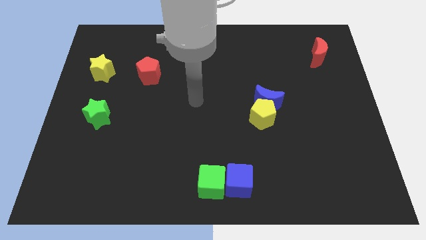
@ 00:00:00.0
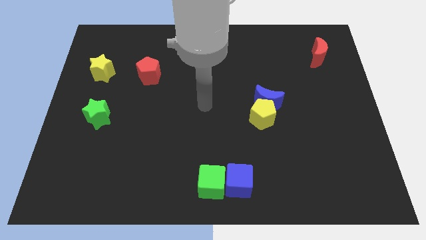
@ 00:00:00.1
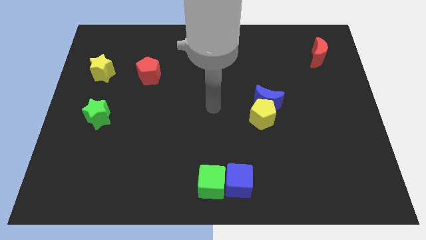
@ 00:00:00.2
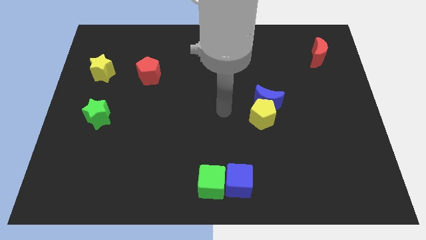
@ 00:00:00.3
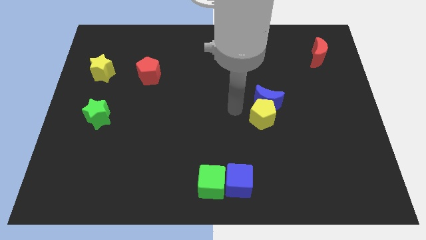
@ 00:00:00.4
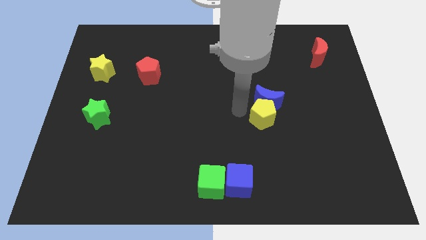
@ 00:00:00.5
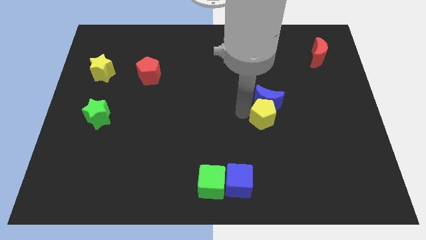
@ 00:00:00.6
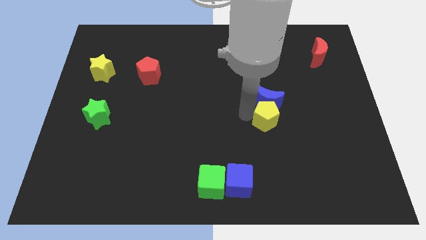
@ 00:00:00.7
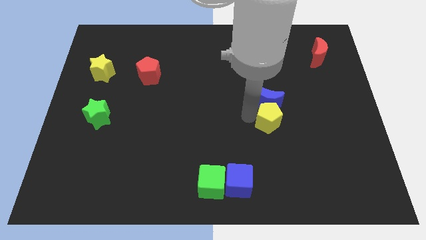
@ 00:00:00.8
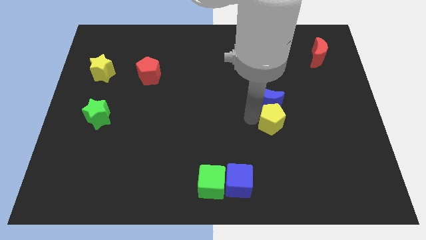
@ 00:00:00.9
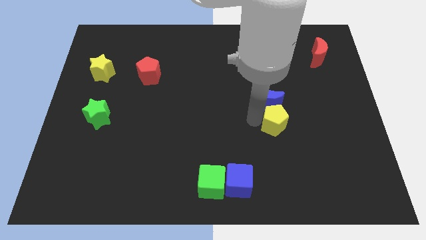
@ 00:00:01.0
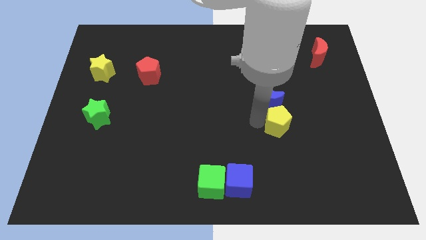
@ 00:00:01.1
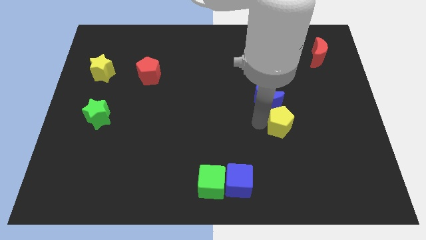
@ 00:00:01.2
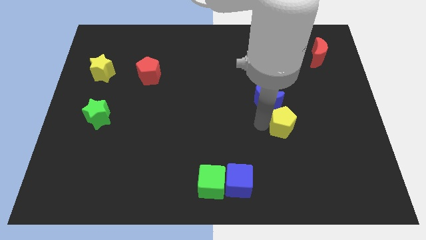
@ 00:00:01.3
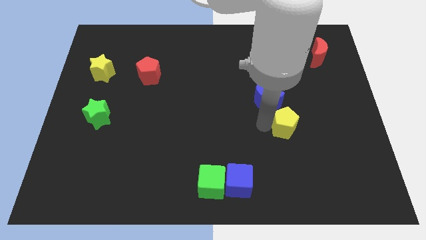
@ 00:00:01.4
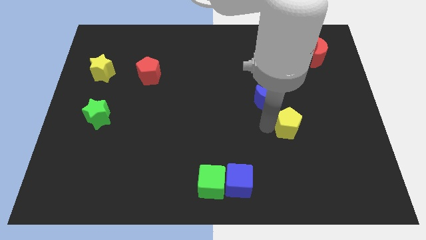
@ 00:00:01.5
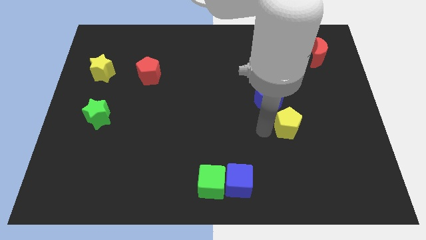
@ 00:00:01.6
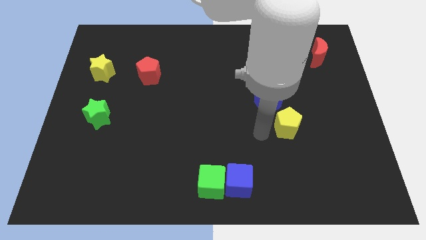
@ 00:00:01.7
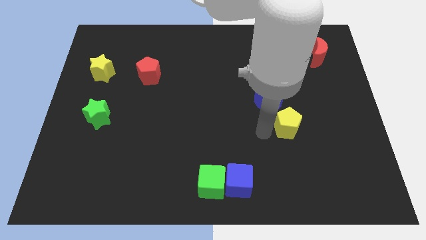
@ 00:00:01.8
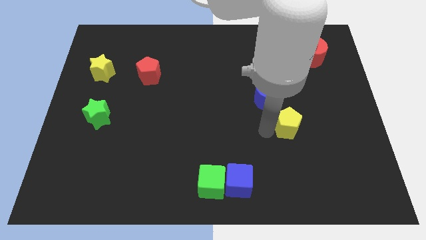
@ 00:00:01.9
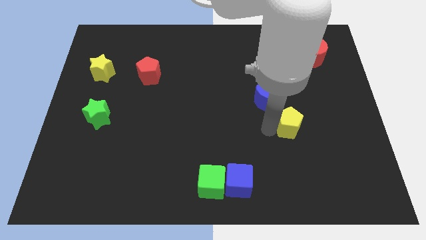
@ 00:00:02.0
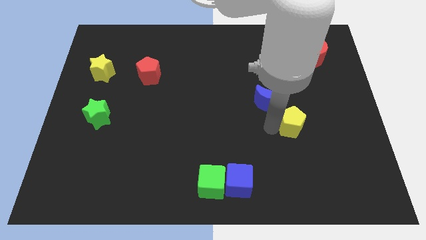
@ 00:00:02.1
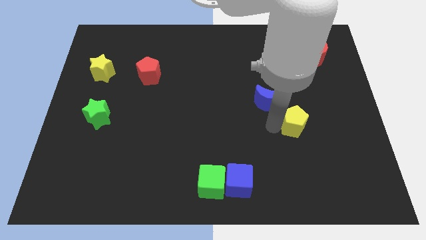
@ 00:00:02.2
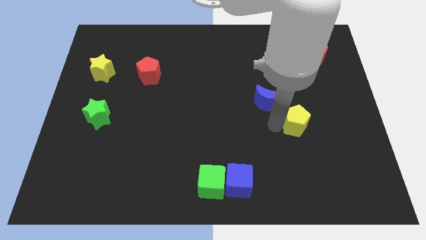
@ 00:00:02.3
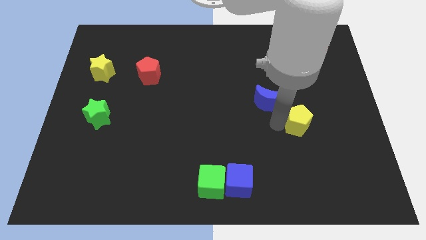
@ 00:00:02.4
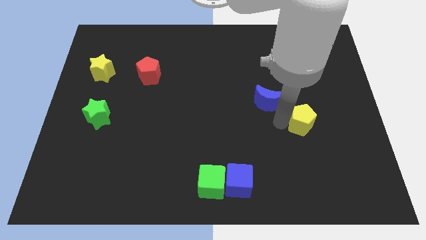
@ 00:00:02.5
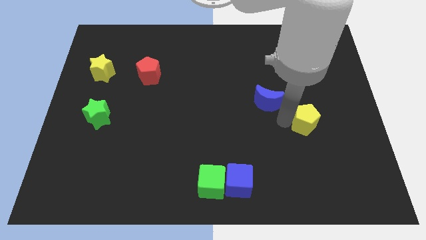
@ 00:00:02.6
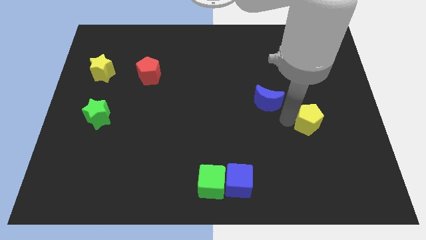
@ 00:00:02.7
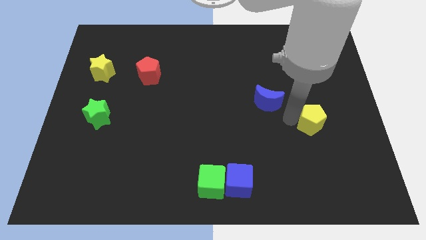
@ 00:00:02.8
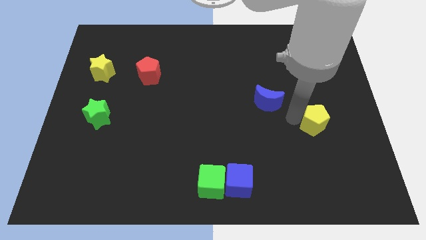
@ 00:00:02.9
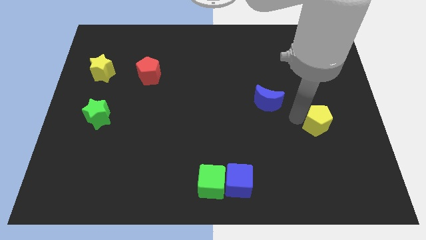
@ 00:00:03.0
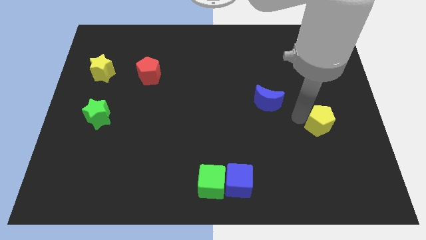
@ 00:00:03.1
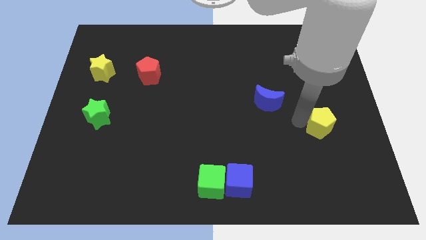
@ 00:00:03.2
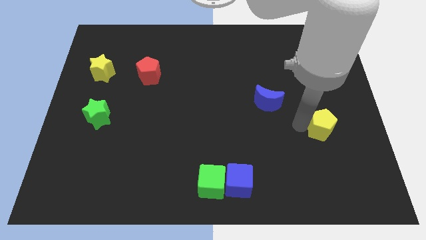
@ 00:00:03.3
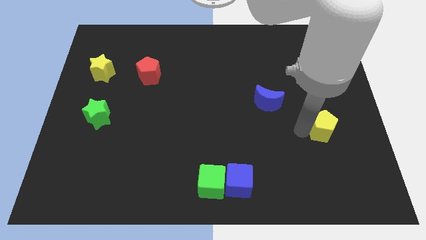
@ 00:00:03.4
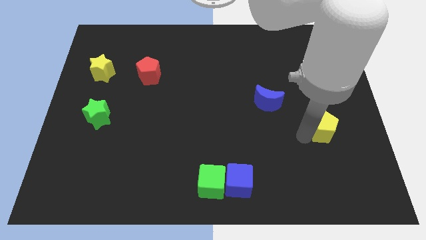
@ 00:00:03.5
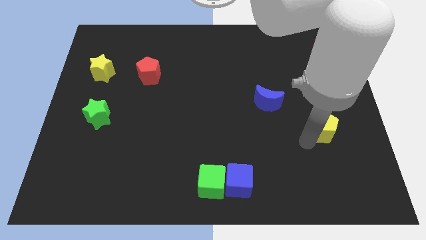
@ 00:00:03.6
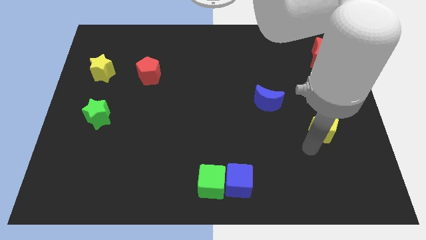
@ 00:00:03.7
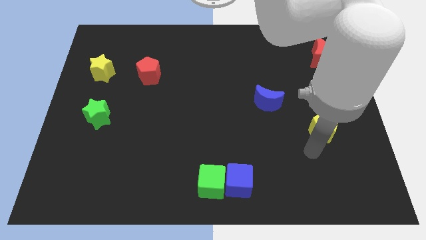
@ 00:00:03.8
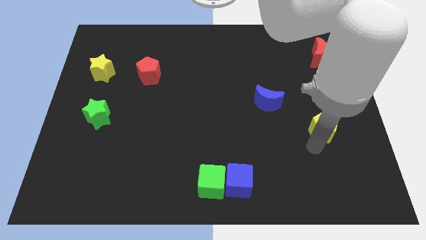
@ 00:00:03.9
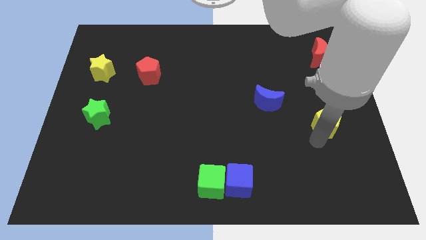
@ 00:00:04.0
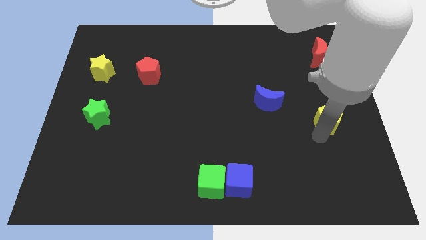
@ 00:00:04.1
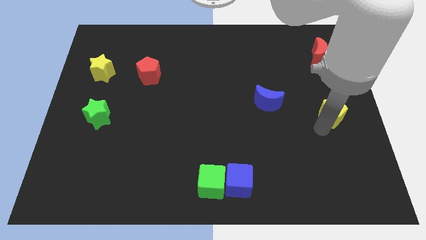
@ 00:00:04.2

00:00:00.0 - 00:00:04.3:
put the yellow pentagon to the right side

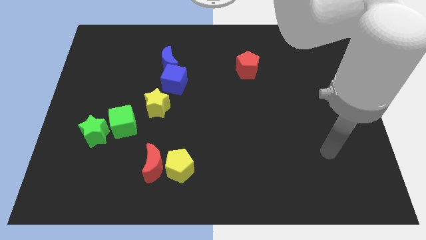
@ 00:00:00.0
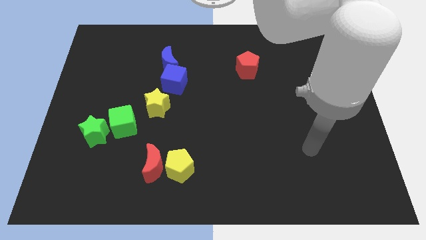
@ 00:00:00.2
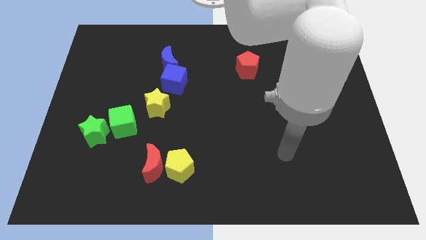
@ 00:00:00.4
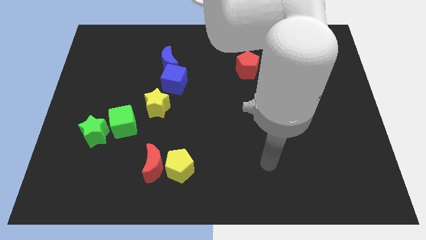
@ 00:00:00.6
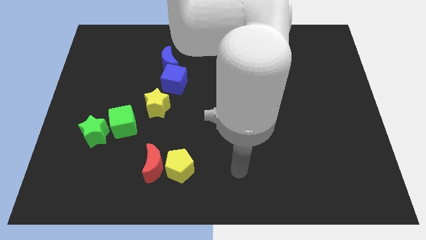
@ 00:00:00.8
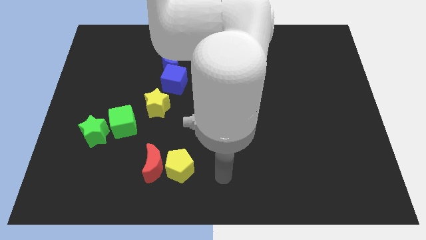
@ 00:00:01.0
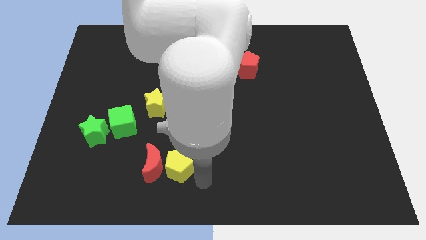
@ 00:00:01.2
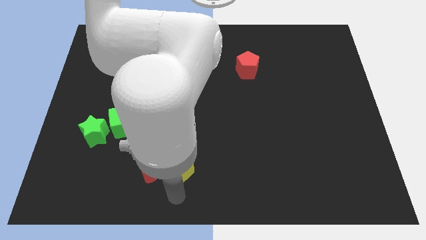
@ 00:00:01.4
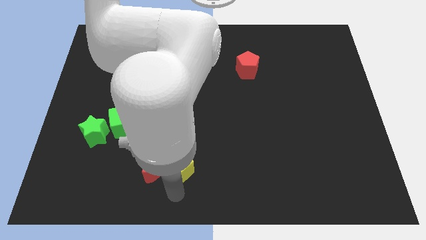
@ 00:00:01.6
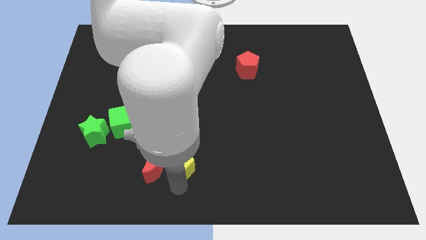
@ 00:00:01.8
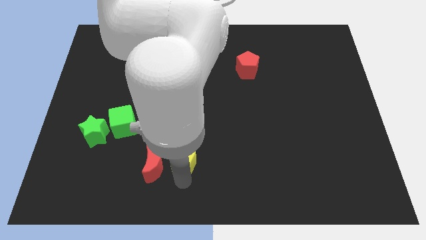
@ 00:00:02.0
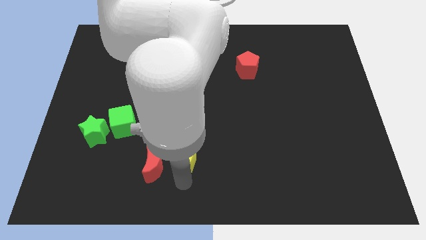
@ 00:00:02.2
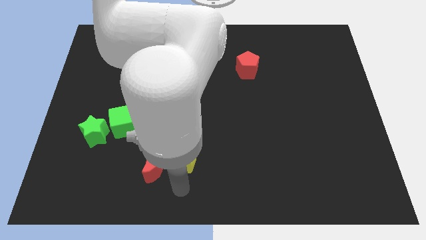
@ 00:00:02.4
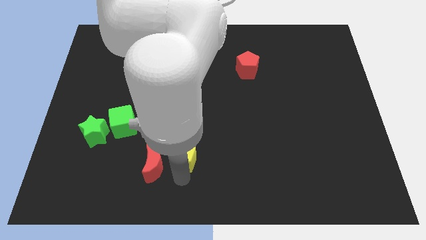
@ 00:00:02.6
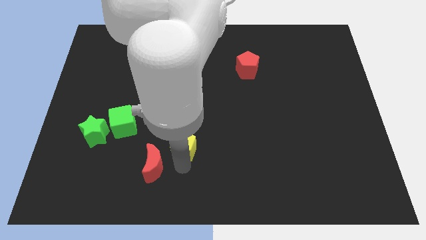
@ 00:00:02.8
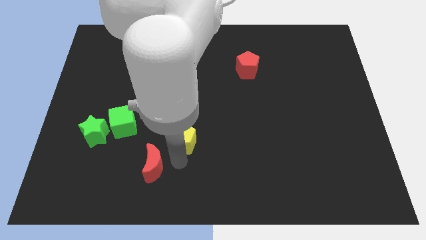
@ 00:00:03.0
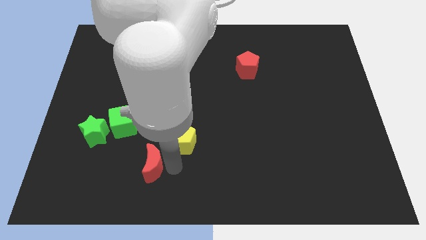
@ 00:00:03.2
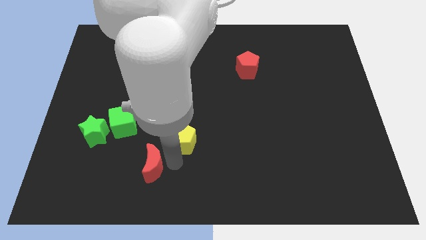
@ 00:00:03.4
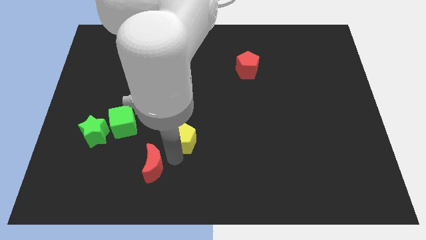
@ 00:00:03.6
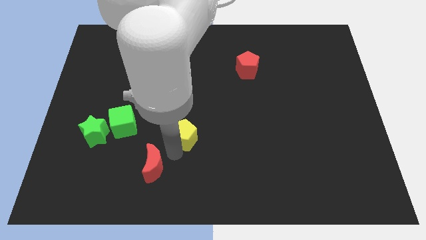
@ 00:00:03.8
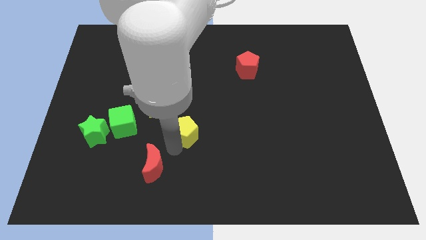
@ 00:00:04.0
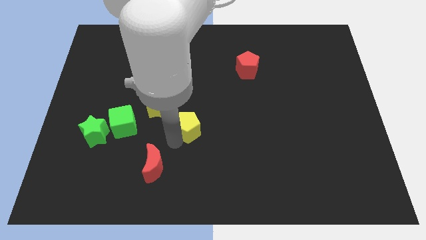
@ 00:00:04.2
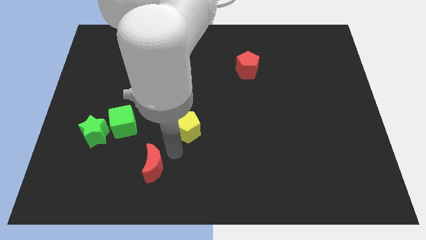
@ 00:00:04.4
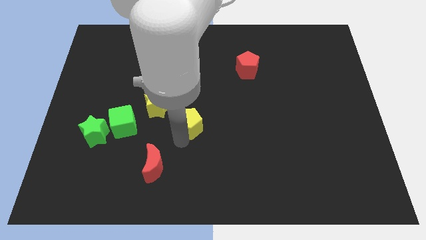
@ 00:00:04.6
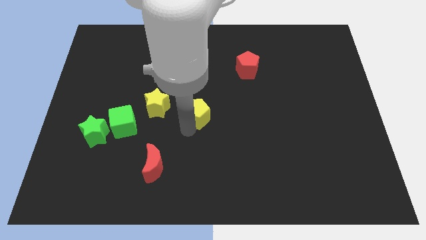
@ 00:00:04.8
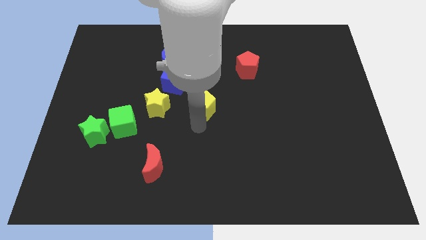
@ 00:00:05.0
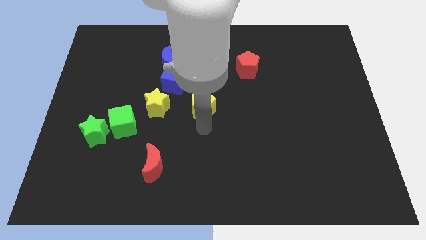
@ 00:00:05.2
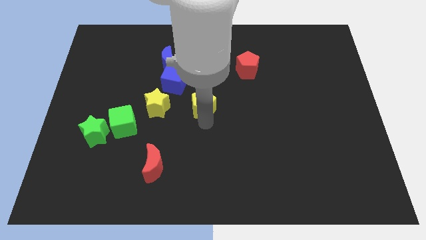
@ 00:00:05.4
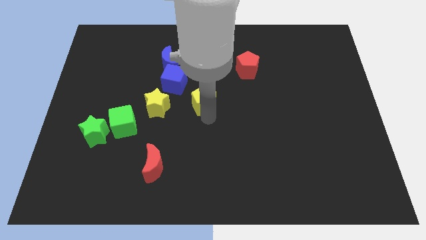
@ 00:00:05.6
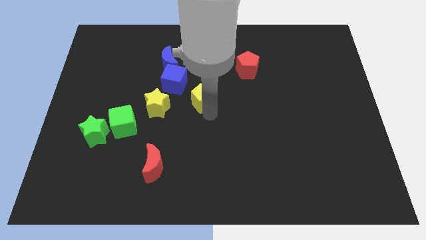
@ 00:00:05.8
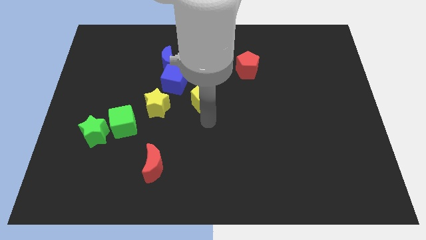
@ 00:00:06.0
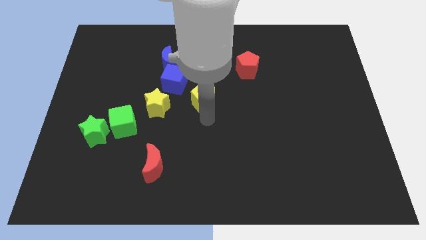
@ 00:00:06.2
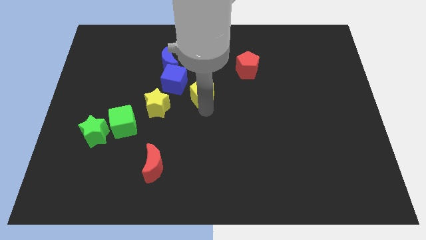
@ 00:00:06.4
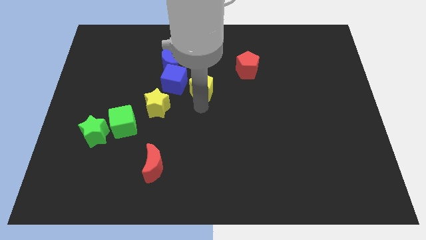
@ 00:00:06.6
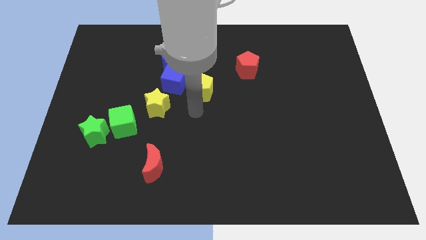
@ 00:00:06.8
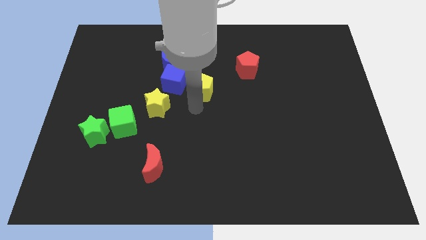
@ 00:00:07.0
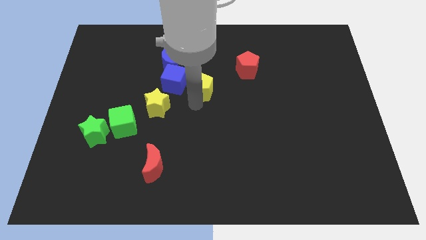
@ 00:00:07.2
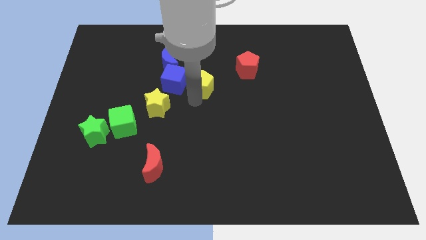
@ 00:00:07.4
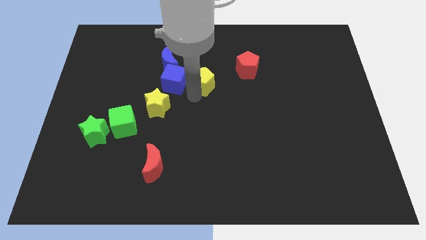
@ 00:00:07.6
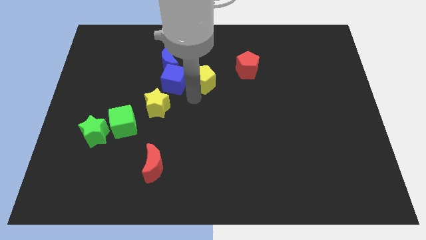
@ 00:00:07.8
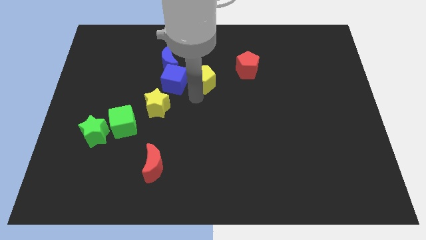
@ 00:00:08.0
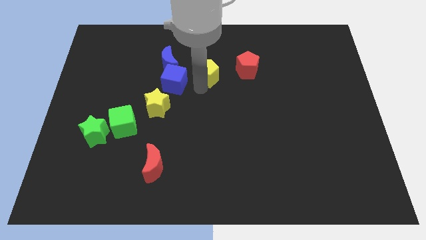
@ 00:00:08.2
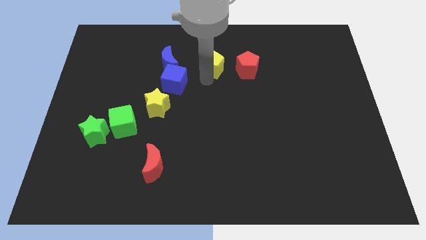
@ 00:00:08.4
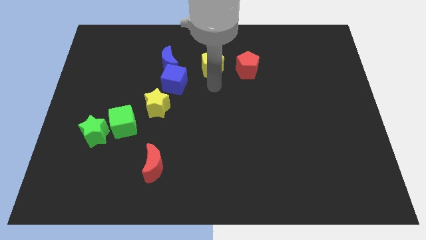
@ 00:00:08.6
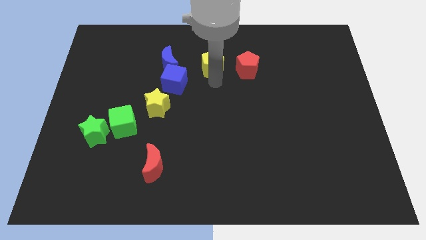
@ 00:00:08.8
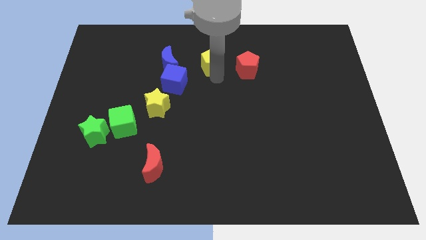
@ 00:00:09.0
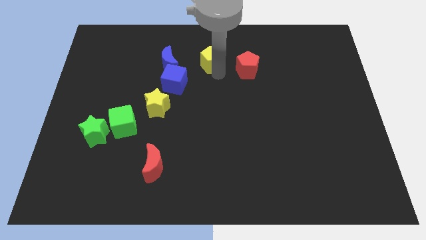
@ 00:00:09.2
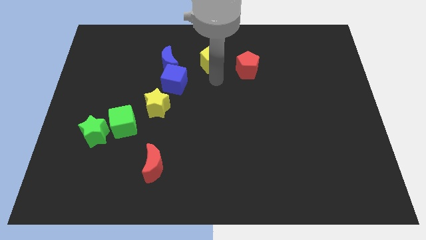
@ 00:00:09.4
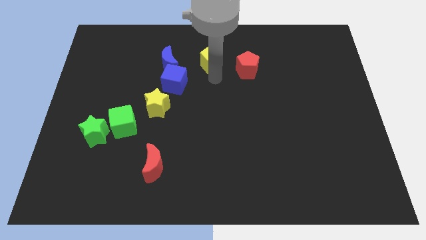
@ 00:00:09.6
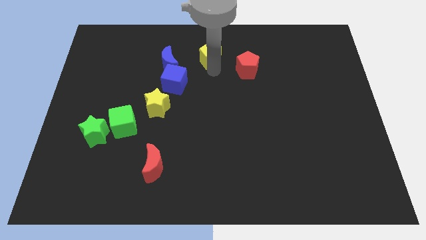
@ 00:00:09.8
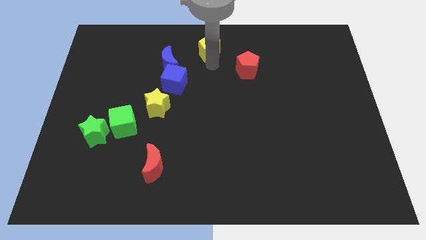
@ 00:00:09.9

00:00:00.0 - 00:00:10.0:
push the yellow pentagon to the top side
